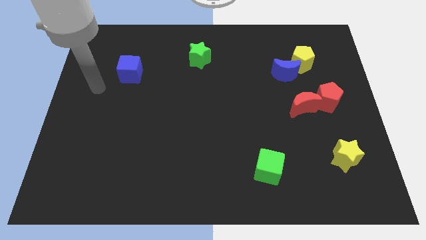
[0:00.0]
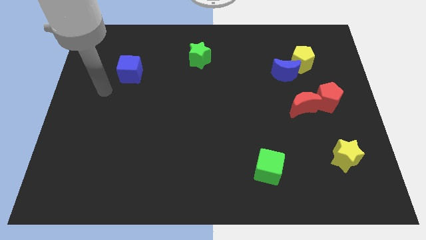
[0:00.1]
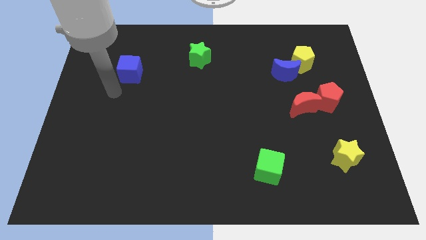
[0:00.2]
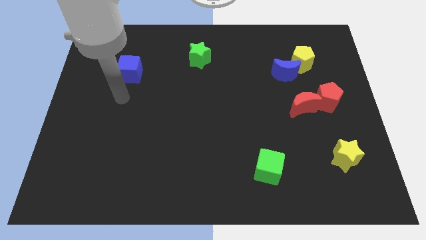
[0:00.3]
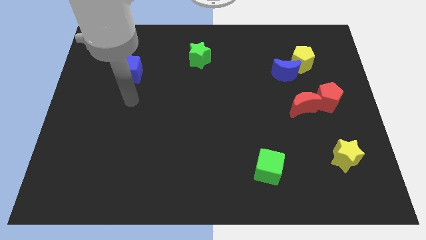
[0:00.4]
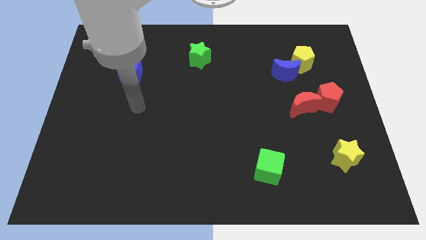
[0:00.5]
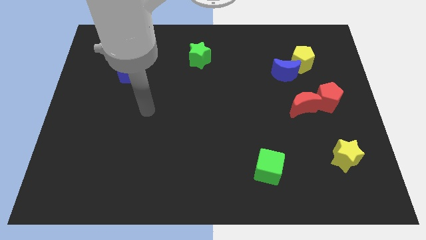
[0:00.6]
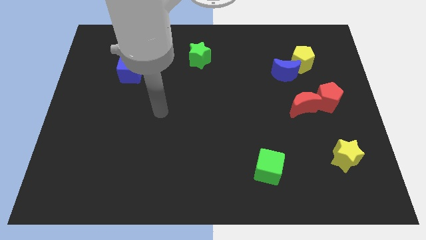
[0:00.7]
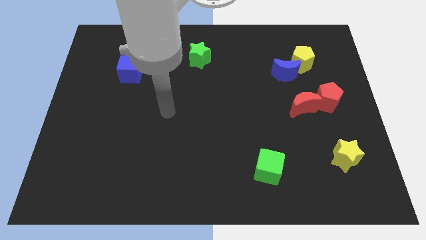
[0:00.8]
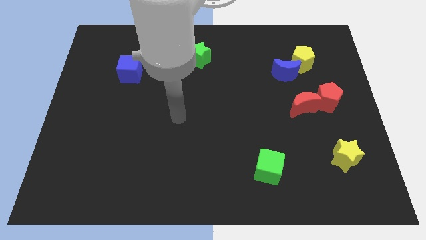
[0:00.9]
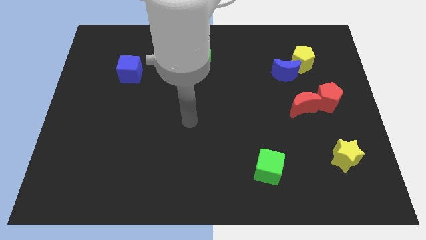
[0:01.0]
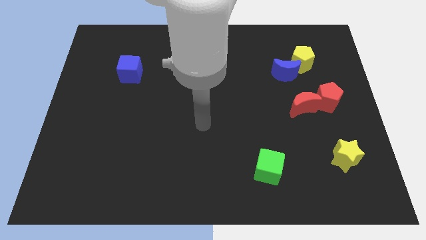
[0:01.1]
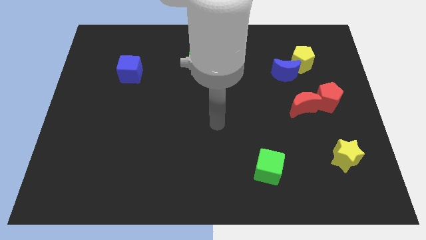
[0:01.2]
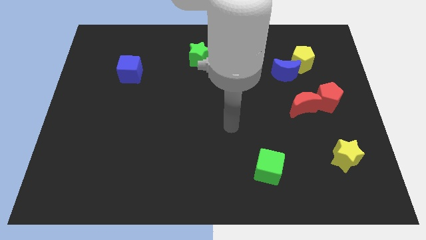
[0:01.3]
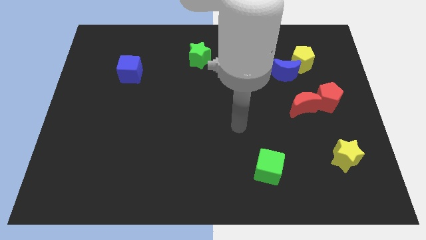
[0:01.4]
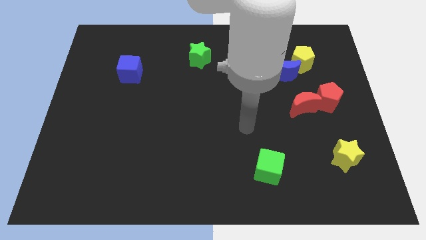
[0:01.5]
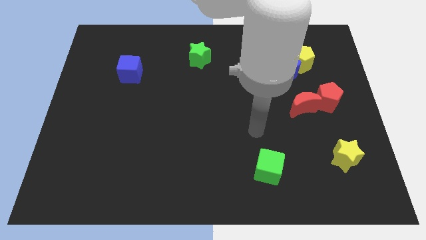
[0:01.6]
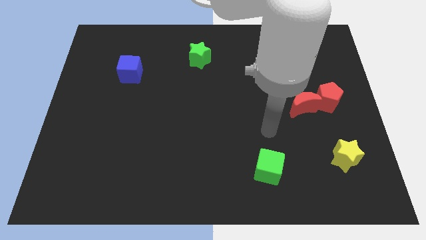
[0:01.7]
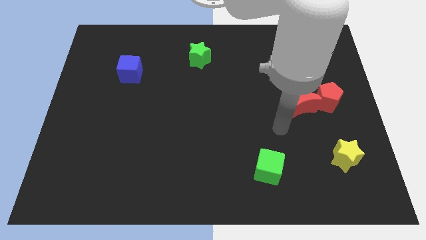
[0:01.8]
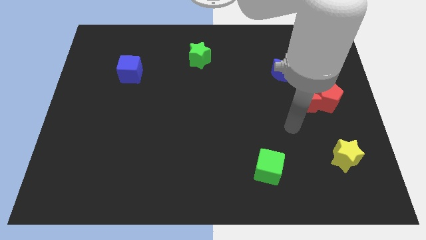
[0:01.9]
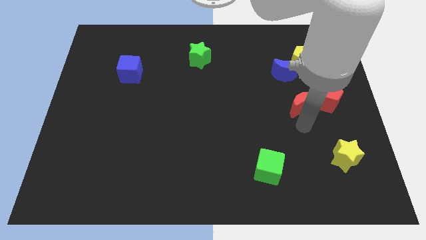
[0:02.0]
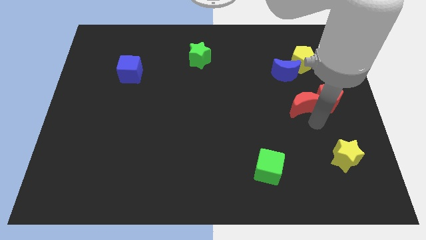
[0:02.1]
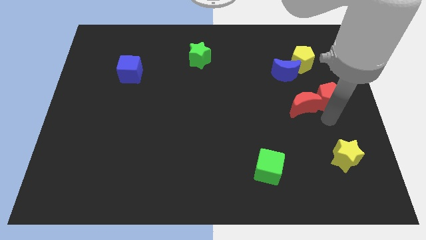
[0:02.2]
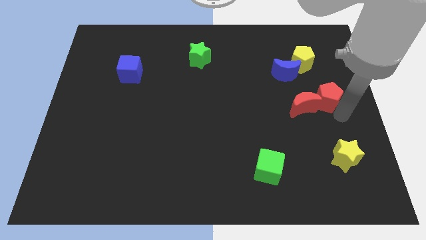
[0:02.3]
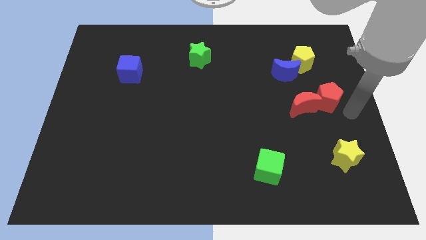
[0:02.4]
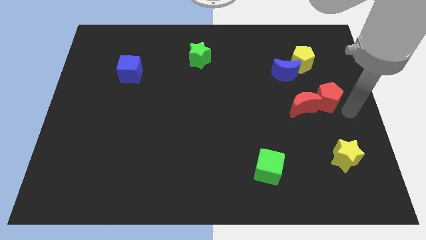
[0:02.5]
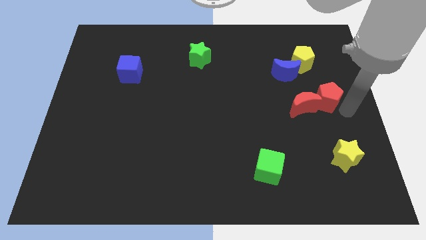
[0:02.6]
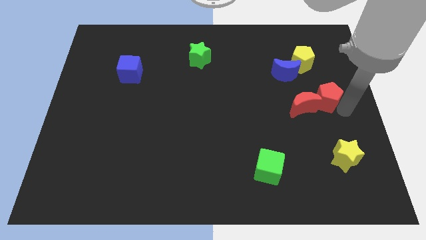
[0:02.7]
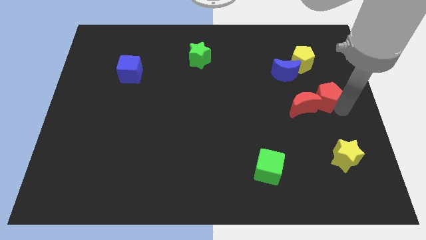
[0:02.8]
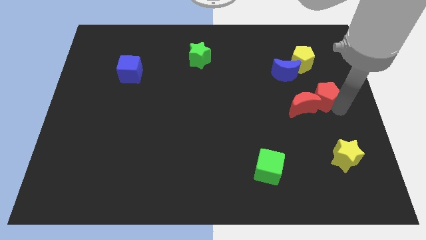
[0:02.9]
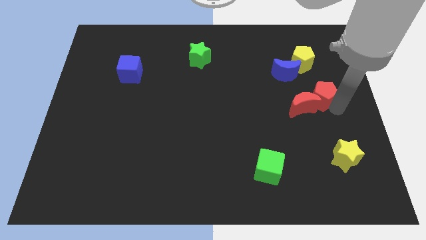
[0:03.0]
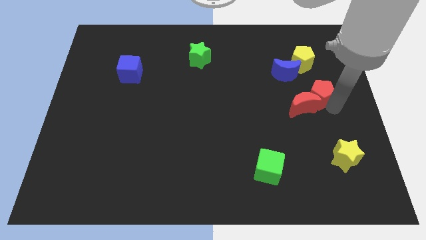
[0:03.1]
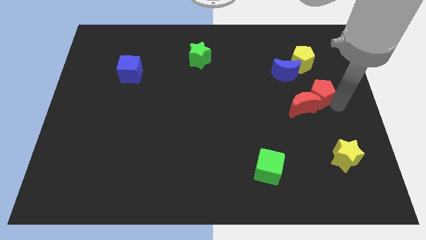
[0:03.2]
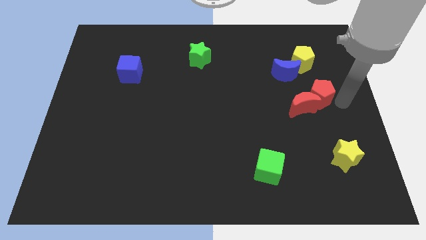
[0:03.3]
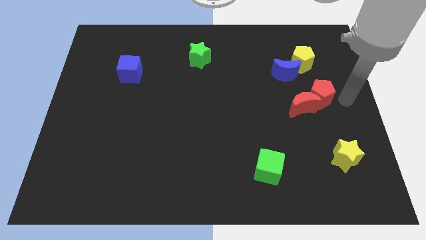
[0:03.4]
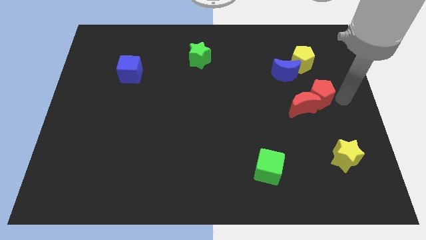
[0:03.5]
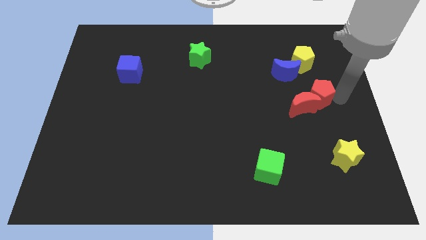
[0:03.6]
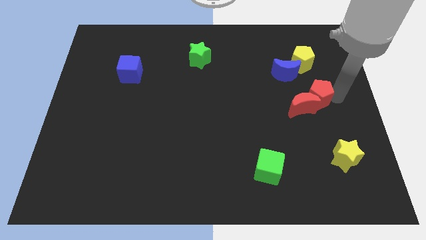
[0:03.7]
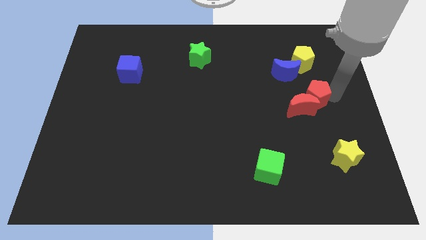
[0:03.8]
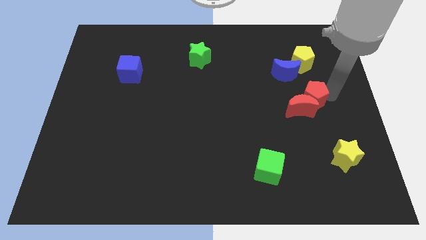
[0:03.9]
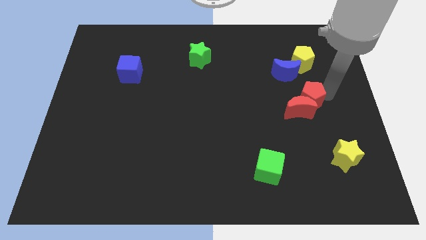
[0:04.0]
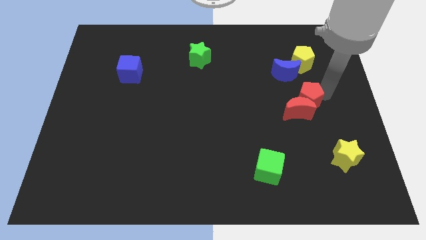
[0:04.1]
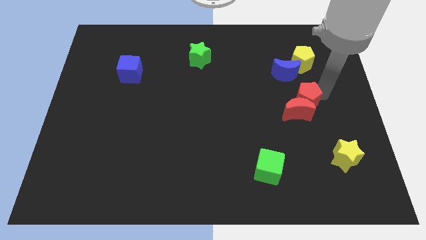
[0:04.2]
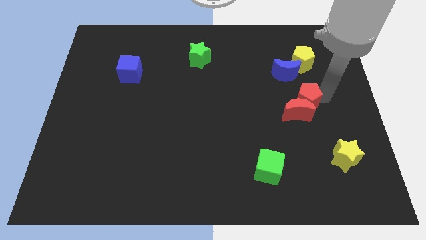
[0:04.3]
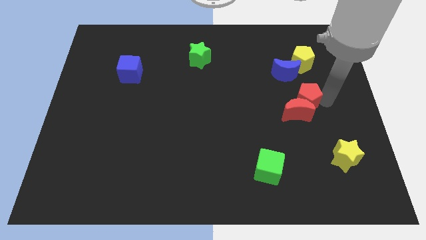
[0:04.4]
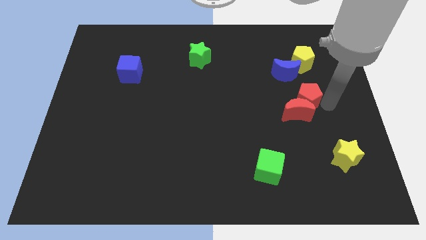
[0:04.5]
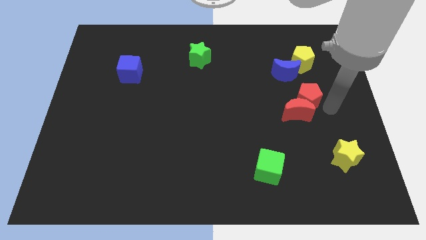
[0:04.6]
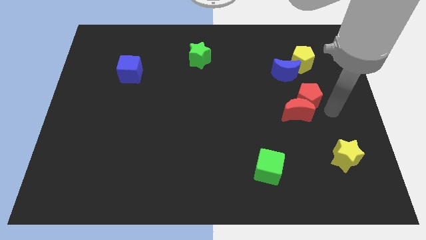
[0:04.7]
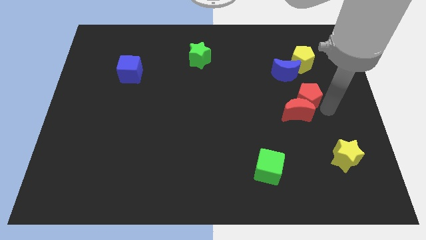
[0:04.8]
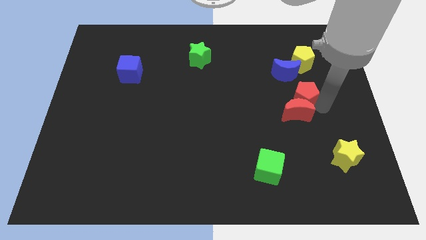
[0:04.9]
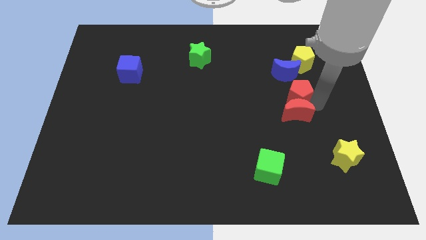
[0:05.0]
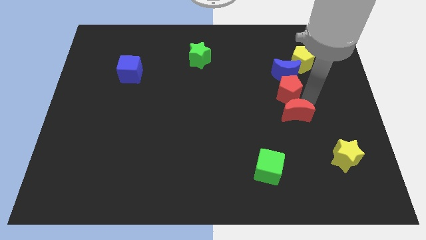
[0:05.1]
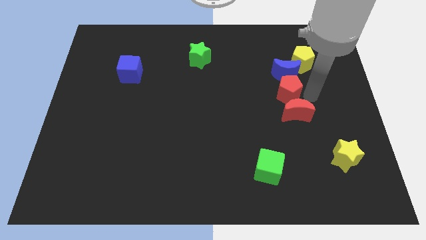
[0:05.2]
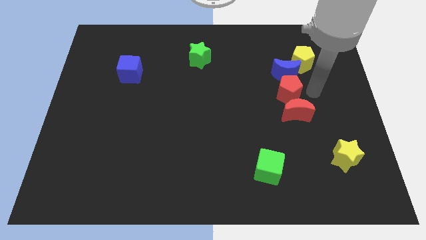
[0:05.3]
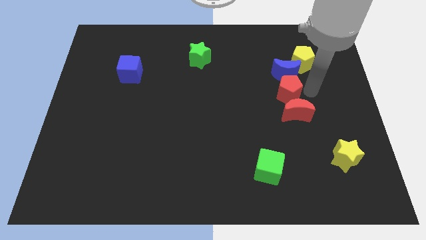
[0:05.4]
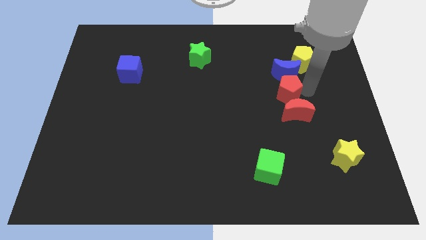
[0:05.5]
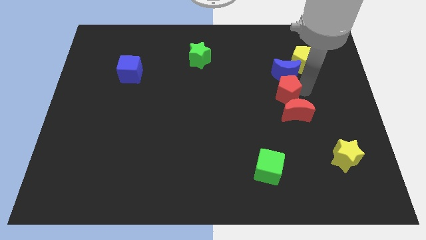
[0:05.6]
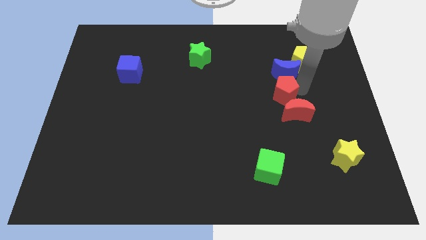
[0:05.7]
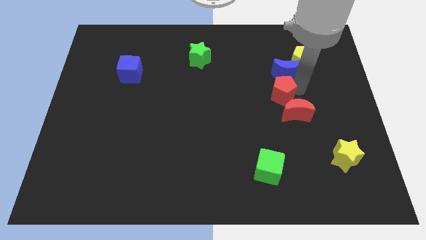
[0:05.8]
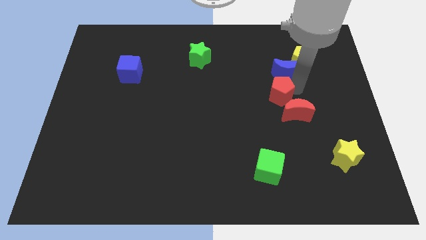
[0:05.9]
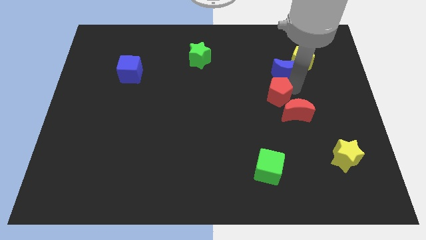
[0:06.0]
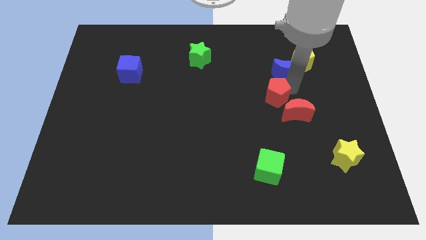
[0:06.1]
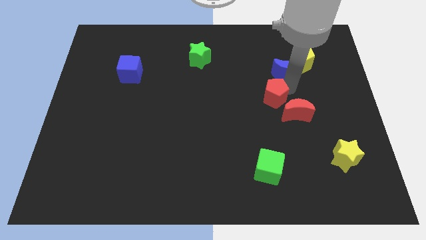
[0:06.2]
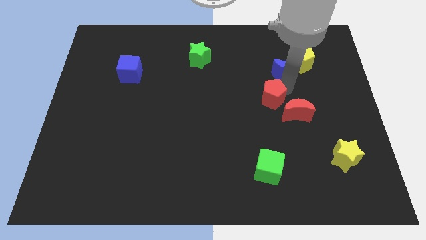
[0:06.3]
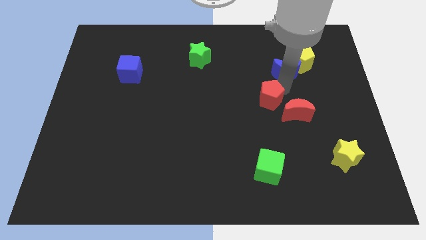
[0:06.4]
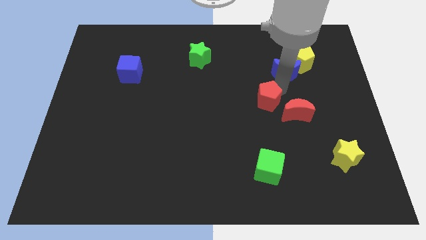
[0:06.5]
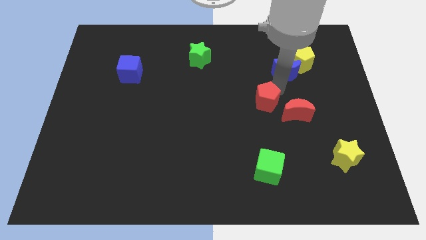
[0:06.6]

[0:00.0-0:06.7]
slide the red pentagon to the middle
